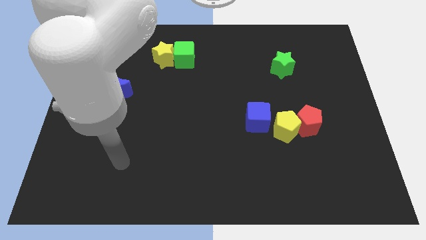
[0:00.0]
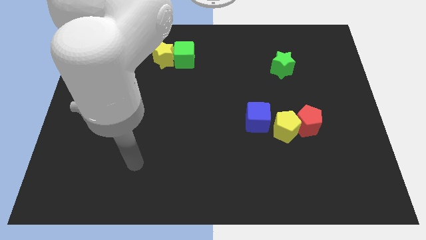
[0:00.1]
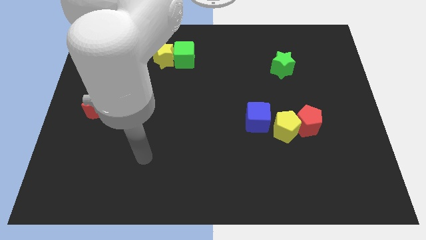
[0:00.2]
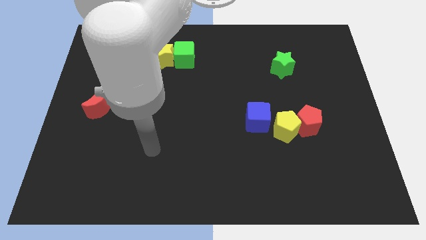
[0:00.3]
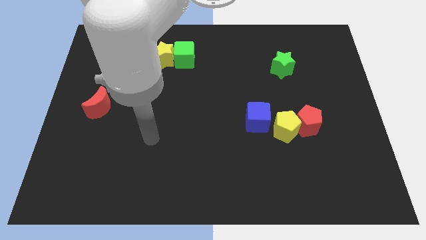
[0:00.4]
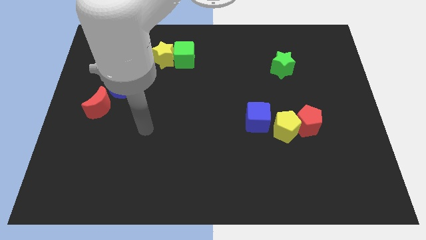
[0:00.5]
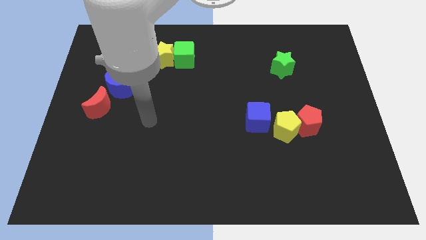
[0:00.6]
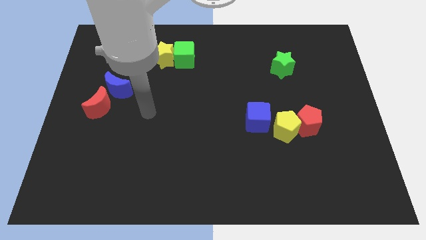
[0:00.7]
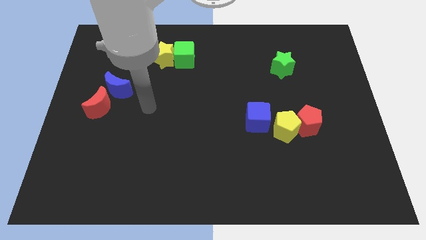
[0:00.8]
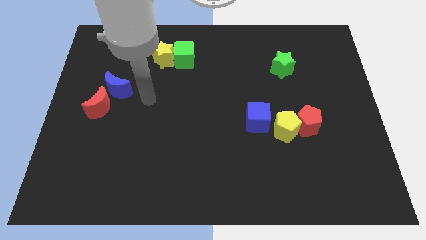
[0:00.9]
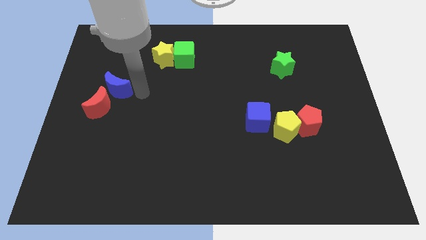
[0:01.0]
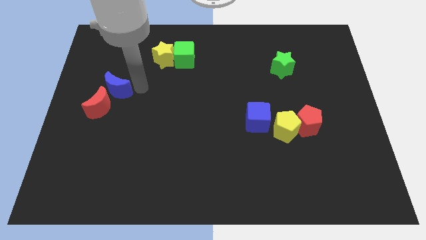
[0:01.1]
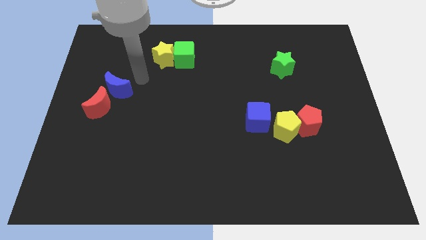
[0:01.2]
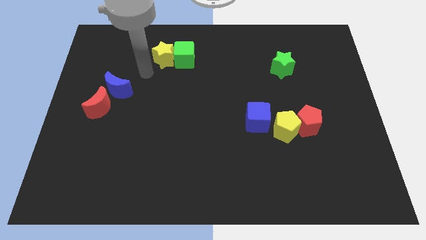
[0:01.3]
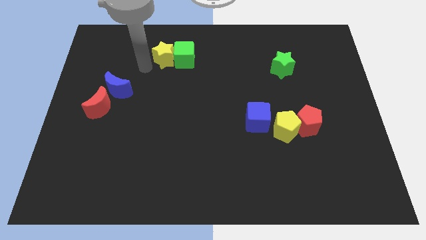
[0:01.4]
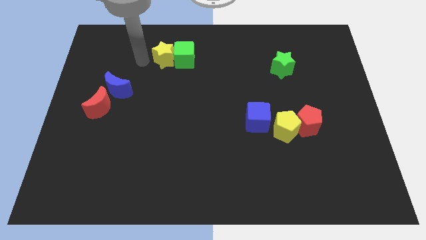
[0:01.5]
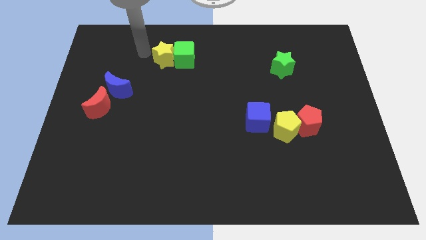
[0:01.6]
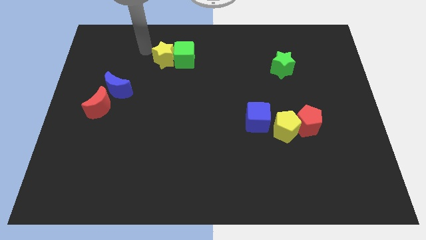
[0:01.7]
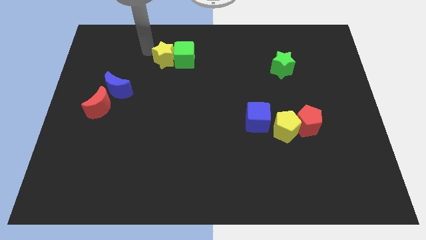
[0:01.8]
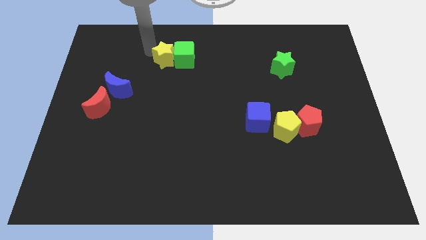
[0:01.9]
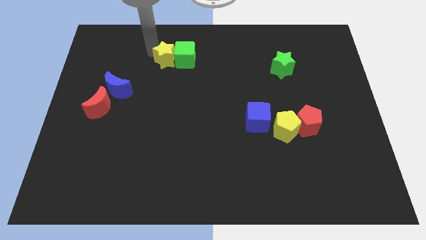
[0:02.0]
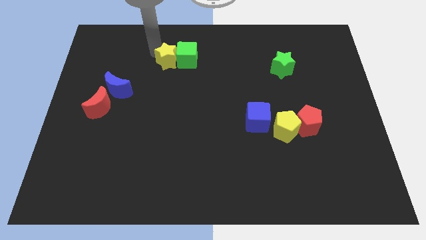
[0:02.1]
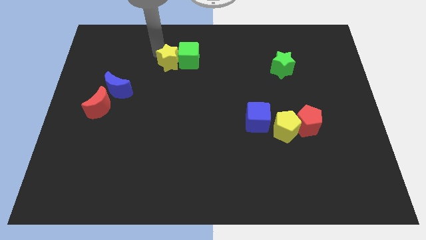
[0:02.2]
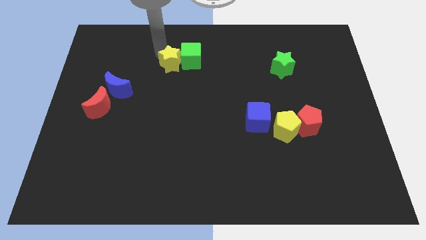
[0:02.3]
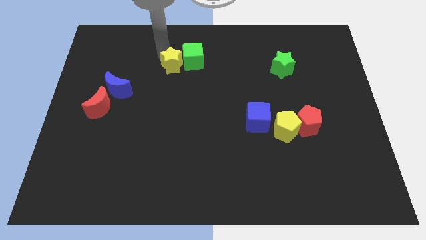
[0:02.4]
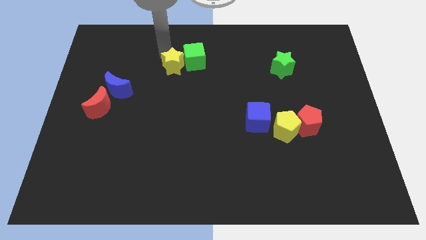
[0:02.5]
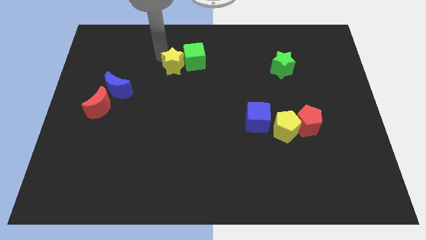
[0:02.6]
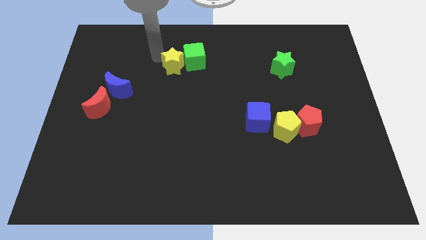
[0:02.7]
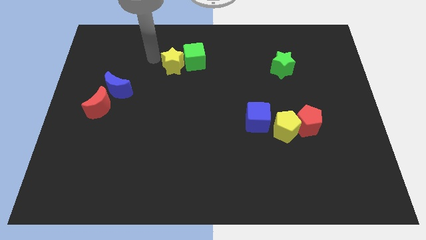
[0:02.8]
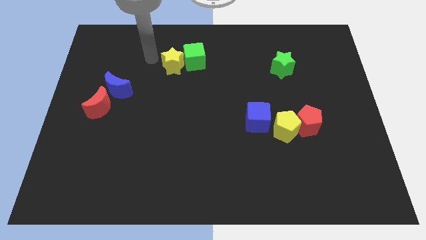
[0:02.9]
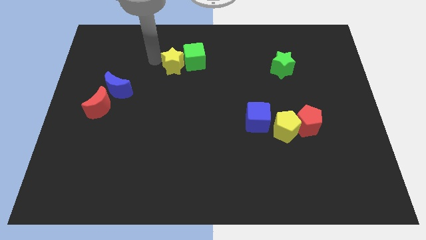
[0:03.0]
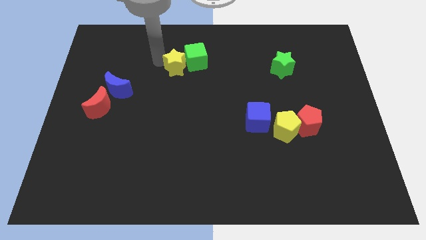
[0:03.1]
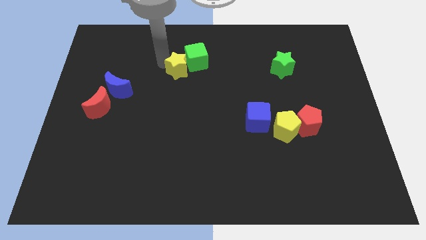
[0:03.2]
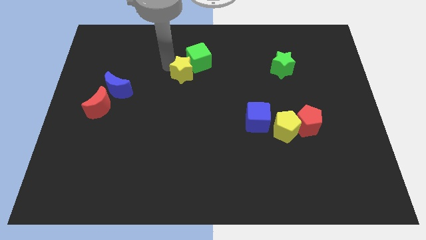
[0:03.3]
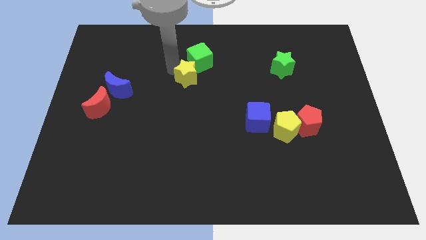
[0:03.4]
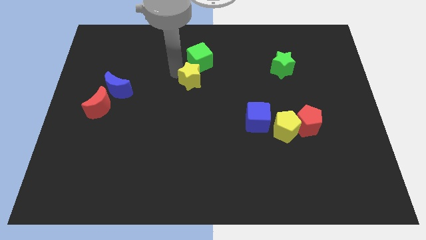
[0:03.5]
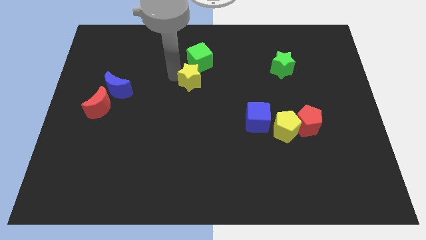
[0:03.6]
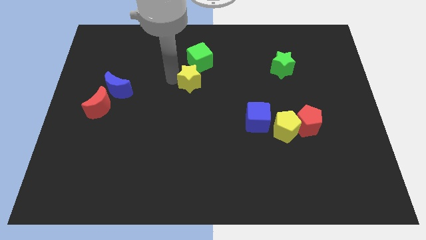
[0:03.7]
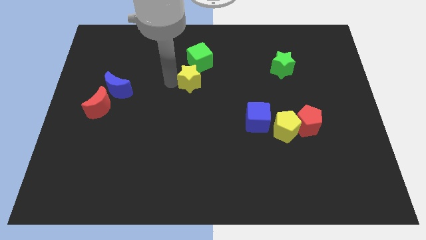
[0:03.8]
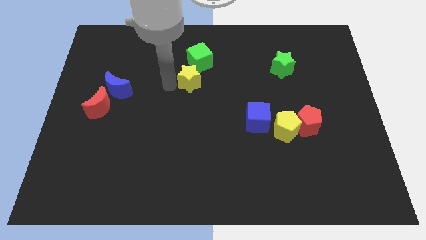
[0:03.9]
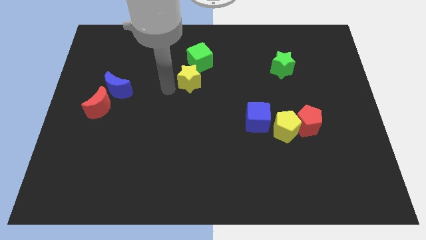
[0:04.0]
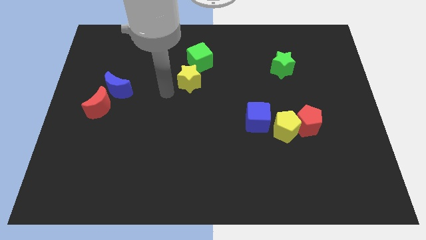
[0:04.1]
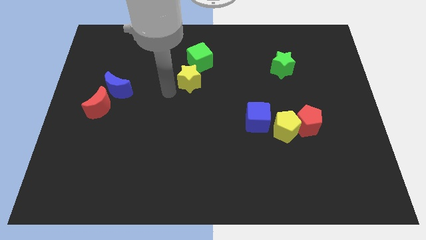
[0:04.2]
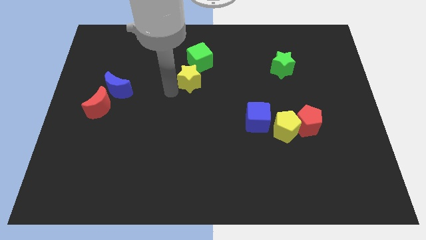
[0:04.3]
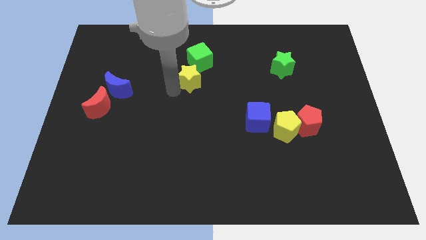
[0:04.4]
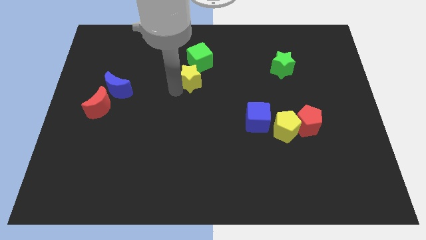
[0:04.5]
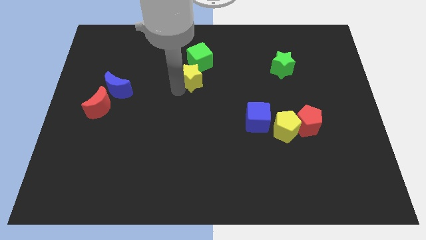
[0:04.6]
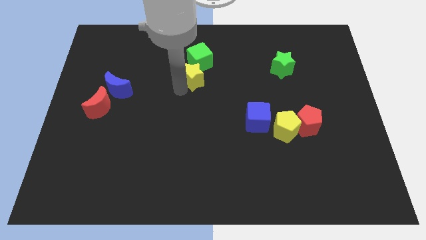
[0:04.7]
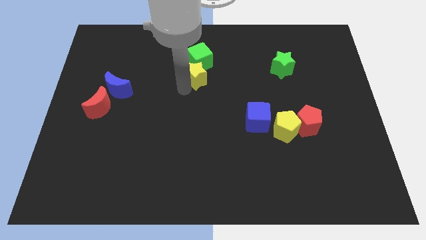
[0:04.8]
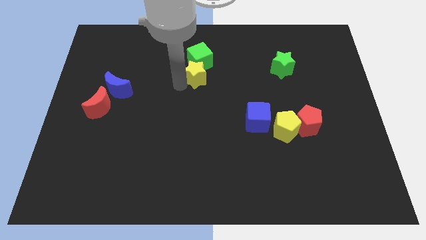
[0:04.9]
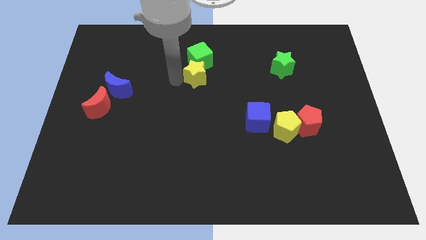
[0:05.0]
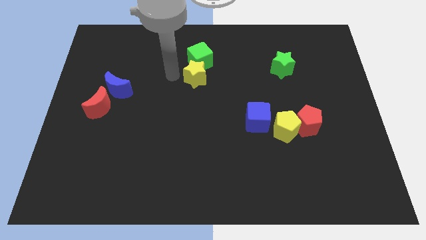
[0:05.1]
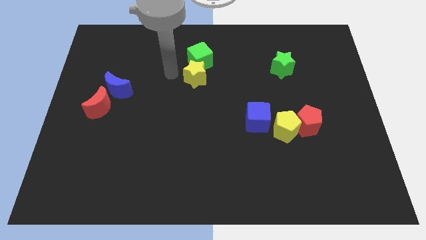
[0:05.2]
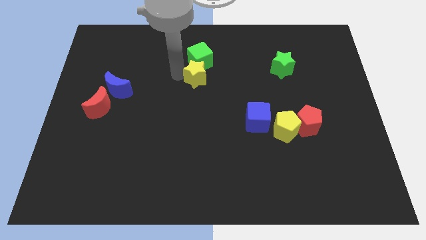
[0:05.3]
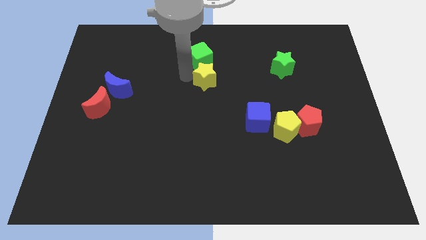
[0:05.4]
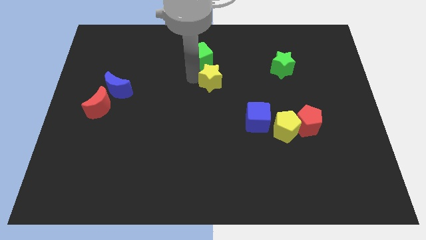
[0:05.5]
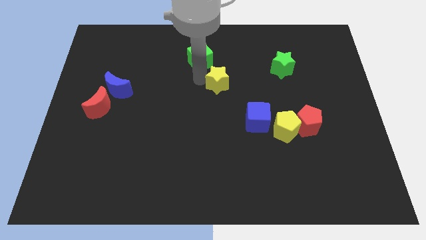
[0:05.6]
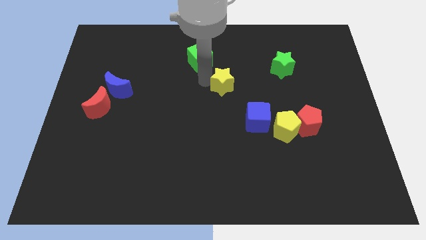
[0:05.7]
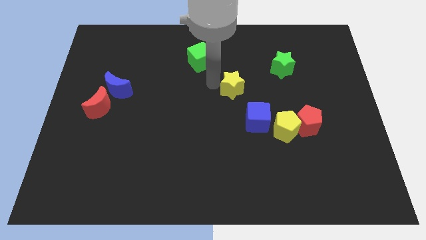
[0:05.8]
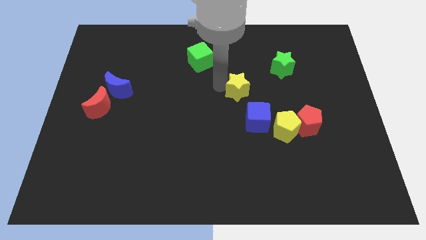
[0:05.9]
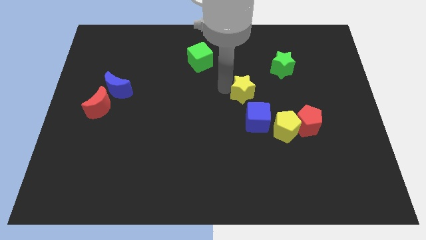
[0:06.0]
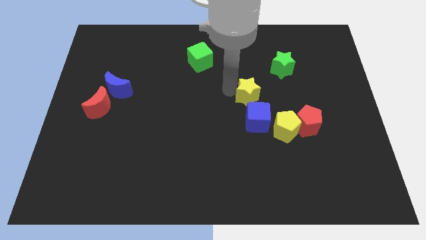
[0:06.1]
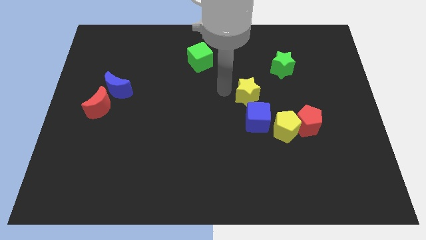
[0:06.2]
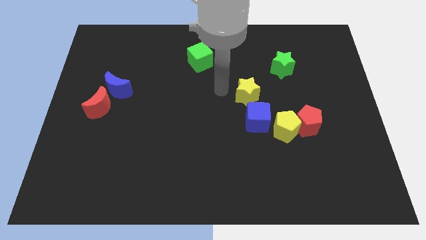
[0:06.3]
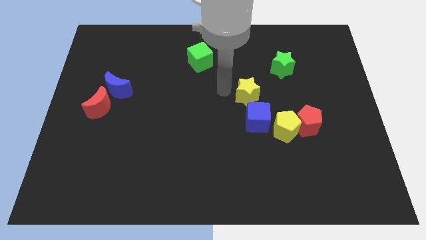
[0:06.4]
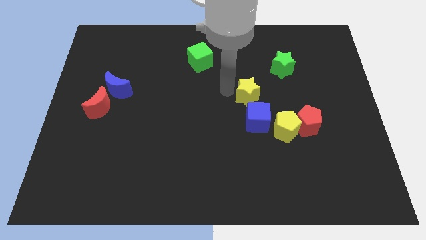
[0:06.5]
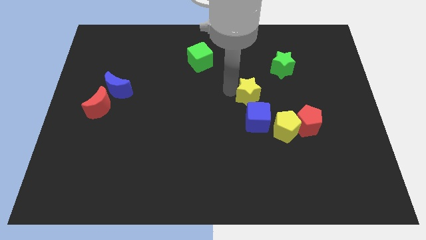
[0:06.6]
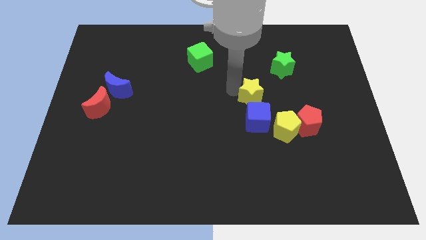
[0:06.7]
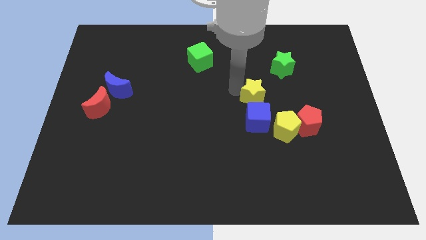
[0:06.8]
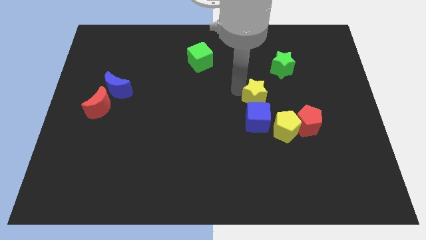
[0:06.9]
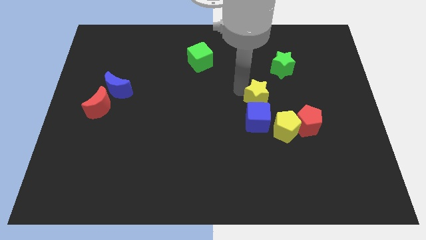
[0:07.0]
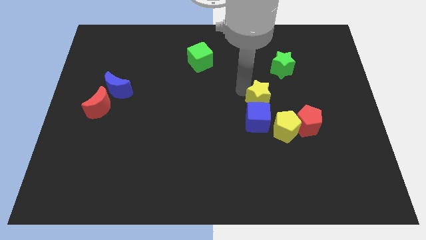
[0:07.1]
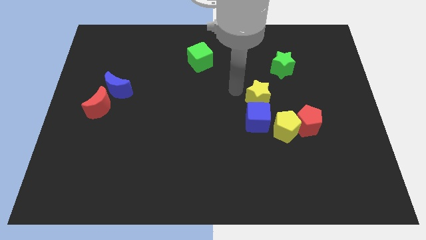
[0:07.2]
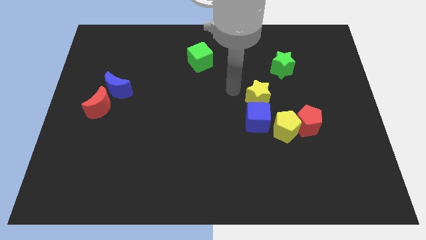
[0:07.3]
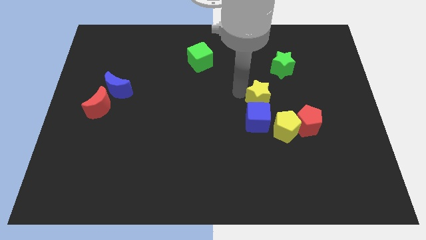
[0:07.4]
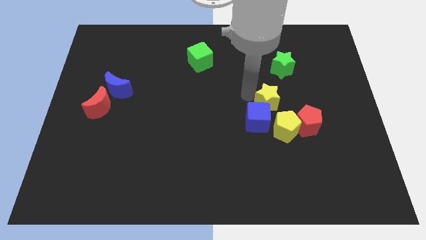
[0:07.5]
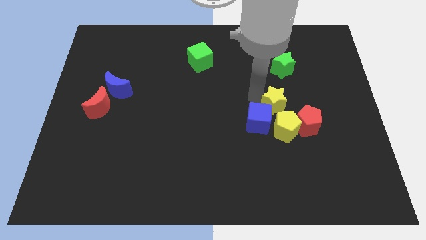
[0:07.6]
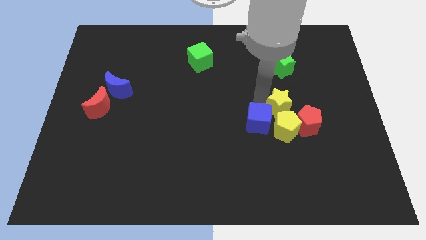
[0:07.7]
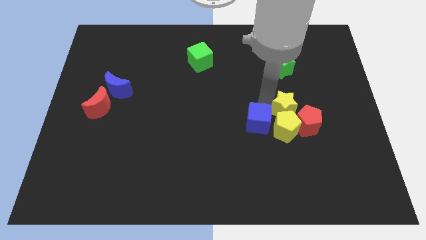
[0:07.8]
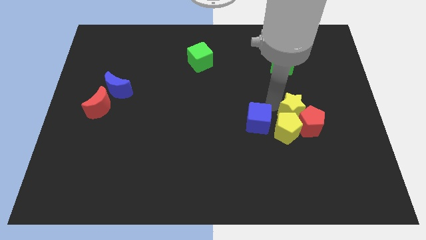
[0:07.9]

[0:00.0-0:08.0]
move the yellow star to the red pentagon
